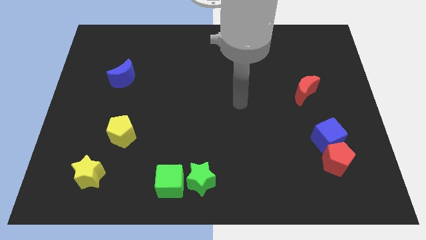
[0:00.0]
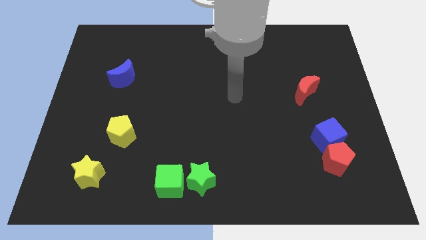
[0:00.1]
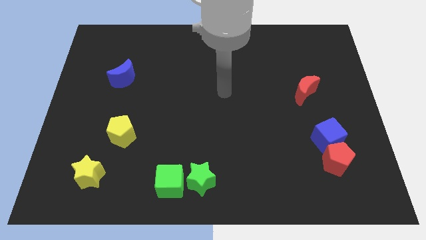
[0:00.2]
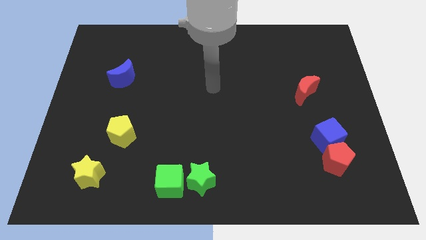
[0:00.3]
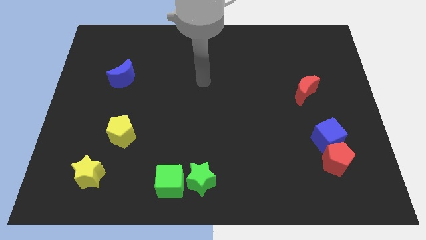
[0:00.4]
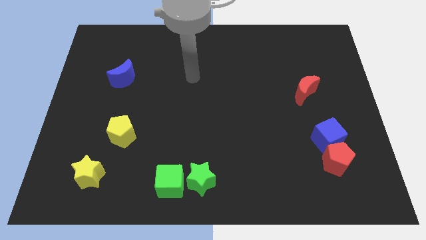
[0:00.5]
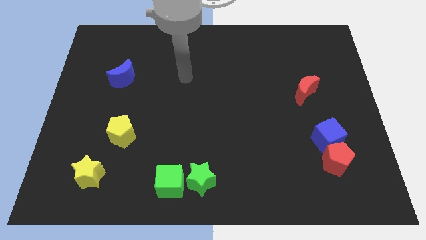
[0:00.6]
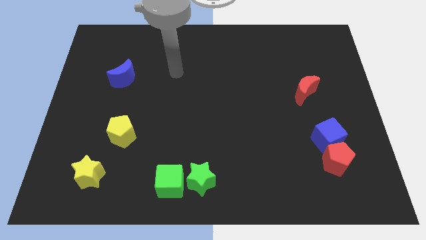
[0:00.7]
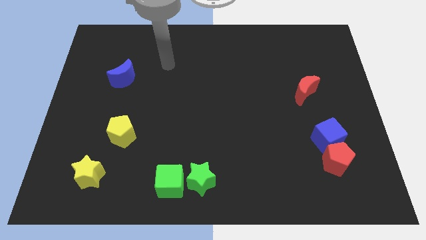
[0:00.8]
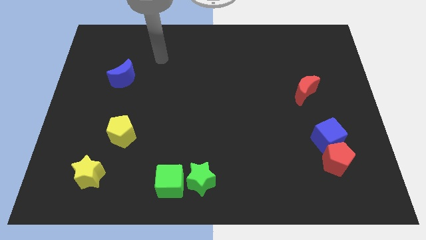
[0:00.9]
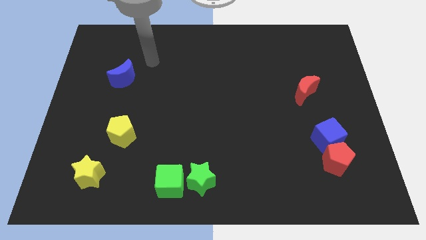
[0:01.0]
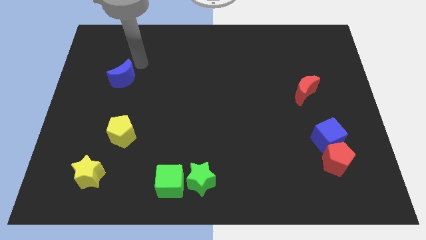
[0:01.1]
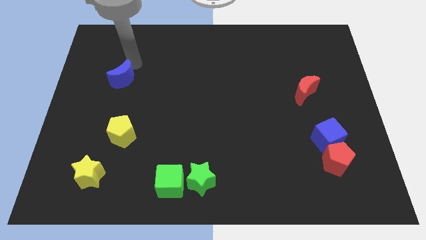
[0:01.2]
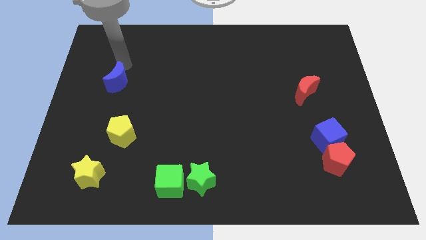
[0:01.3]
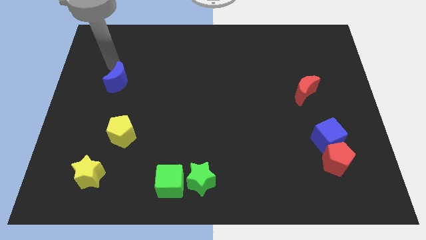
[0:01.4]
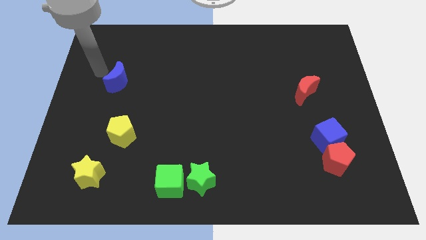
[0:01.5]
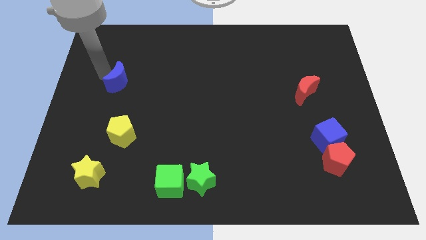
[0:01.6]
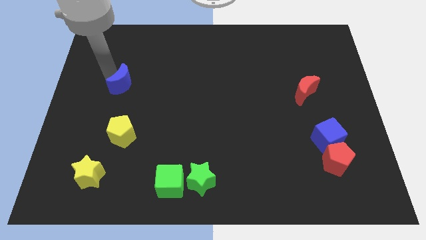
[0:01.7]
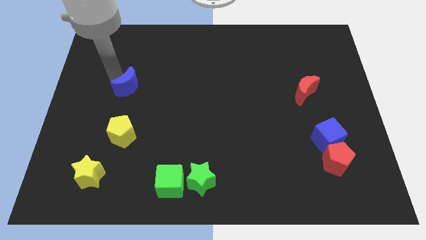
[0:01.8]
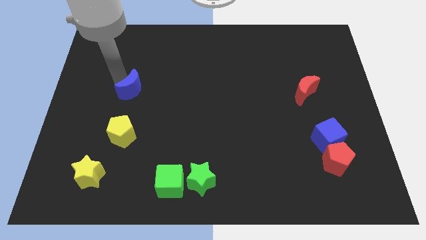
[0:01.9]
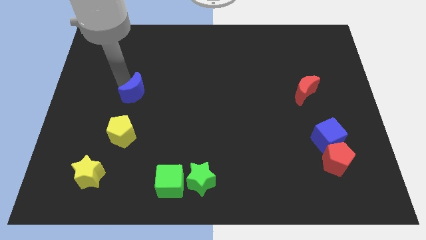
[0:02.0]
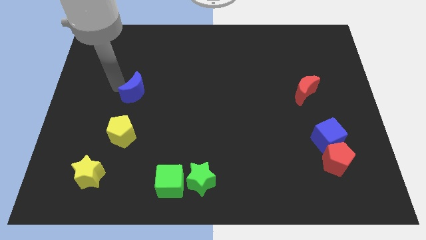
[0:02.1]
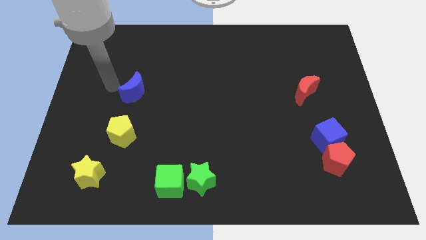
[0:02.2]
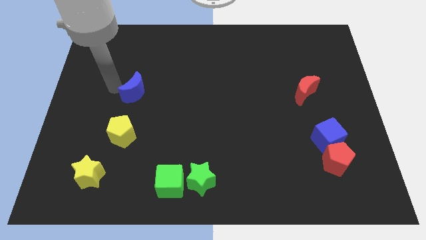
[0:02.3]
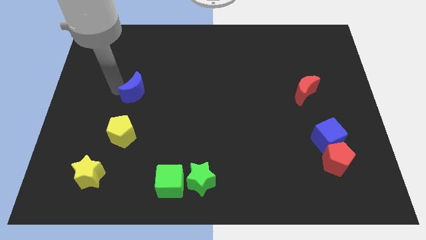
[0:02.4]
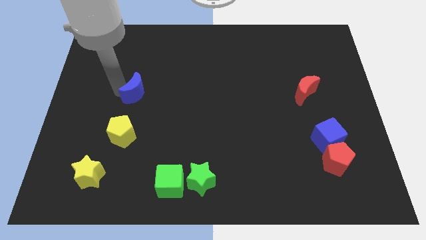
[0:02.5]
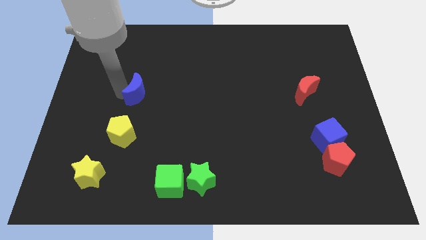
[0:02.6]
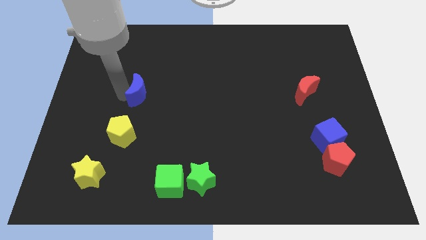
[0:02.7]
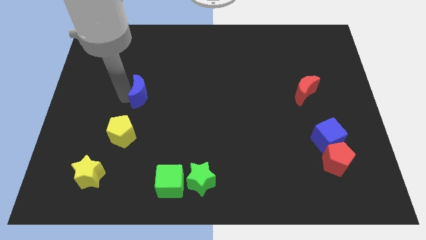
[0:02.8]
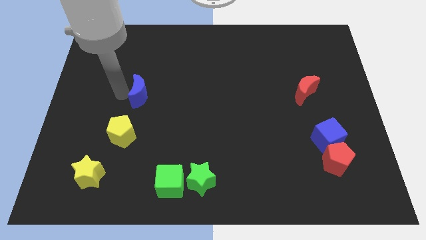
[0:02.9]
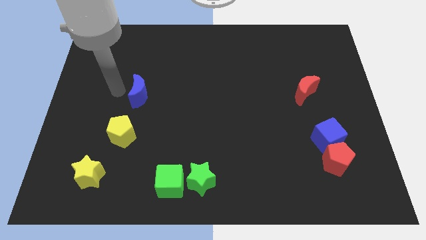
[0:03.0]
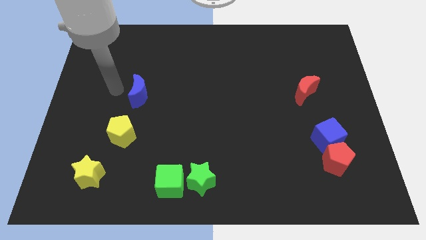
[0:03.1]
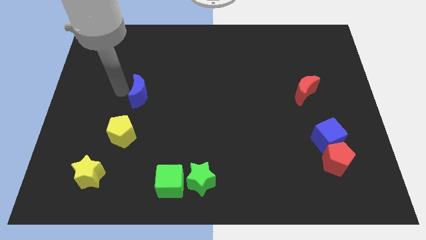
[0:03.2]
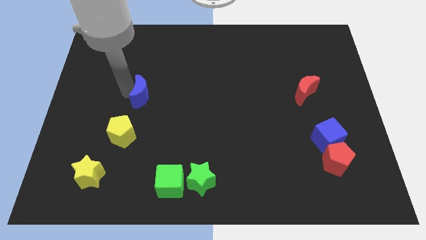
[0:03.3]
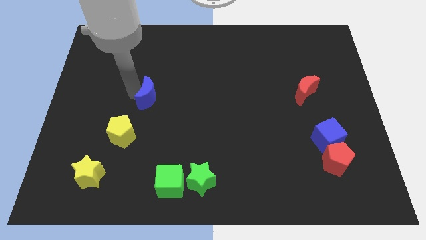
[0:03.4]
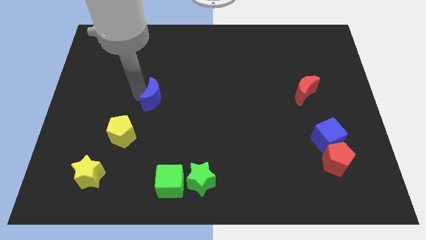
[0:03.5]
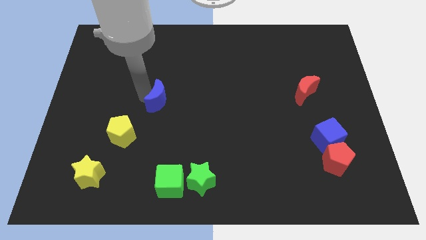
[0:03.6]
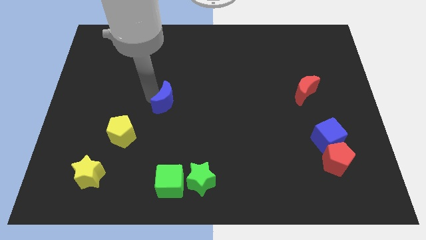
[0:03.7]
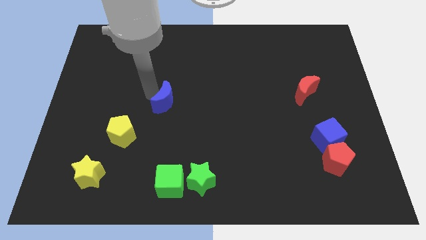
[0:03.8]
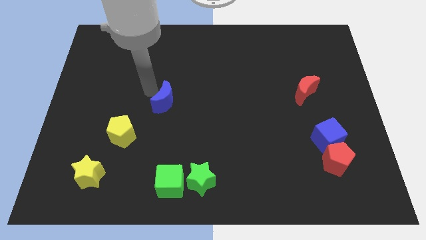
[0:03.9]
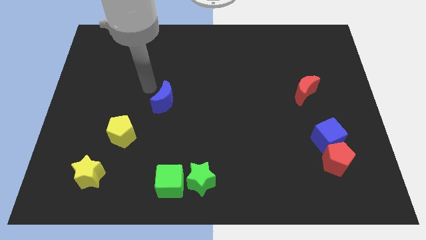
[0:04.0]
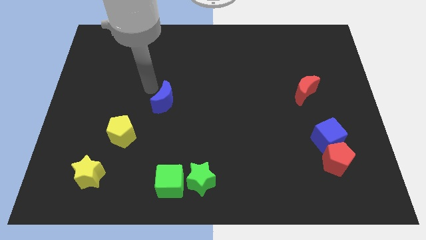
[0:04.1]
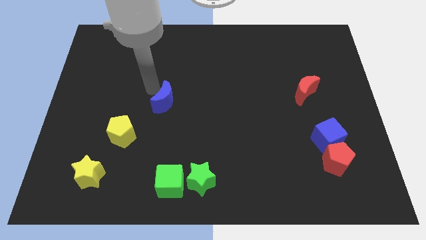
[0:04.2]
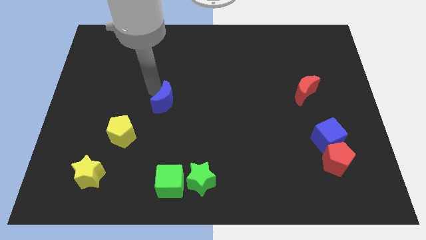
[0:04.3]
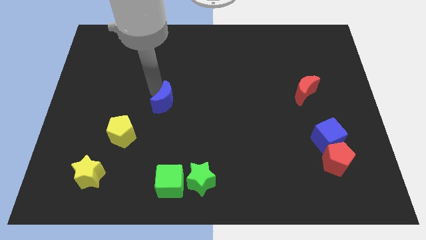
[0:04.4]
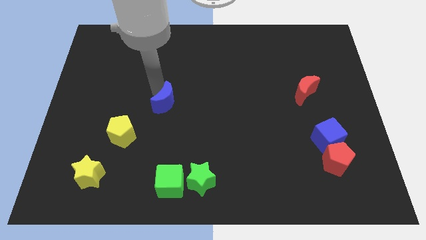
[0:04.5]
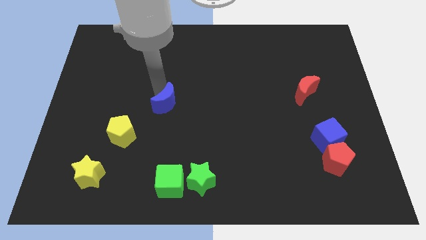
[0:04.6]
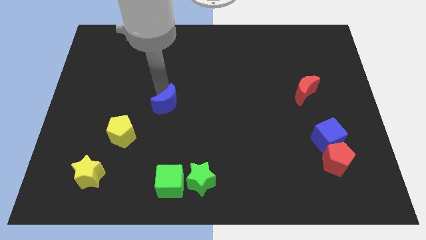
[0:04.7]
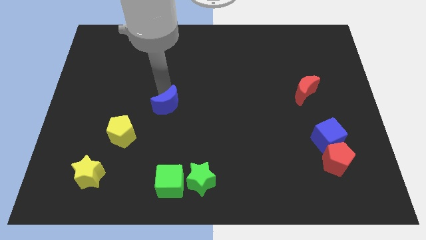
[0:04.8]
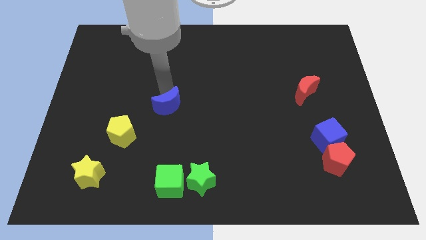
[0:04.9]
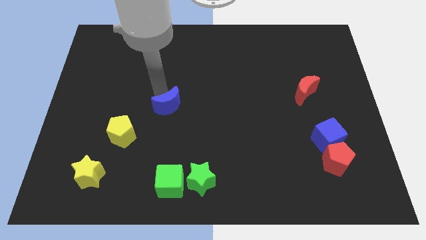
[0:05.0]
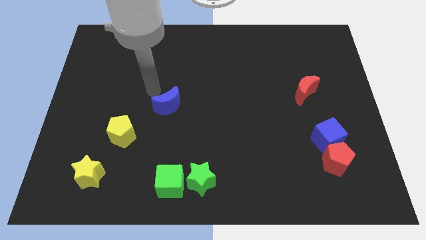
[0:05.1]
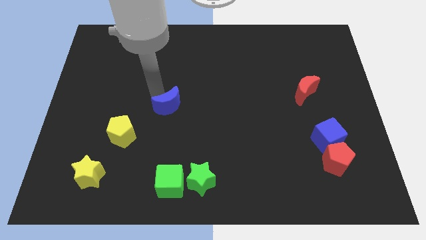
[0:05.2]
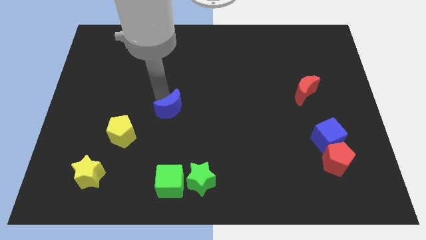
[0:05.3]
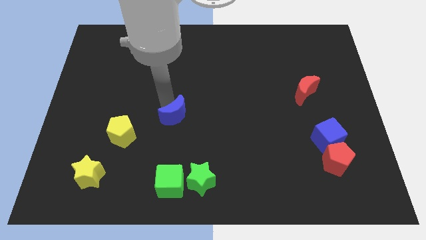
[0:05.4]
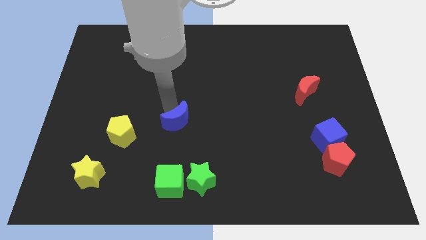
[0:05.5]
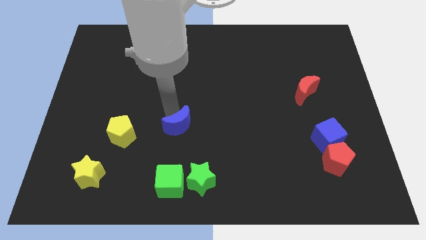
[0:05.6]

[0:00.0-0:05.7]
push the blue moon down and to the right diagonally

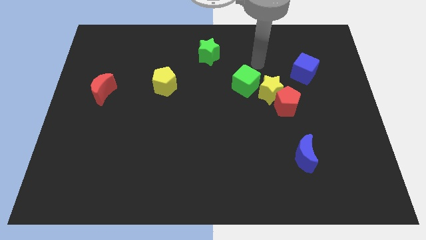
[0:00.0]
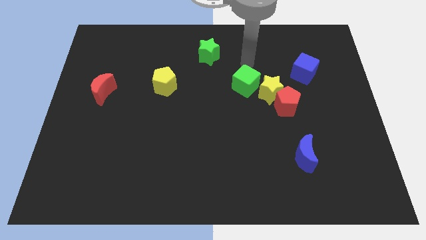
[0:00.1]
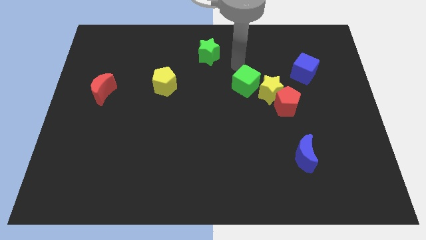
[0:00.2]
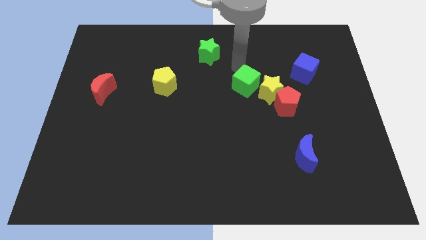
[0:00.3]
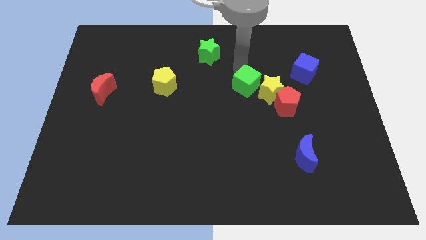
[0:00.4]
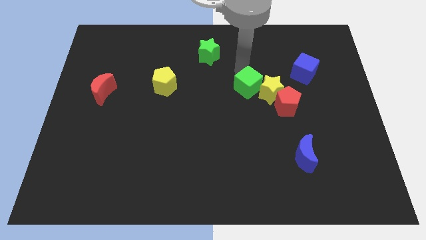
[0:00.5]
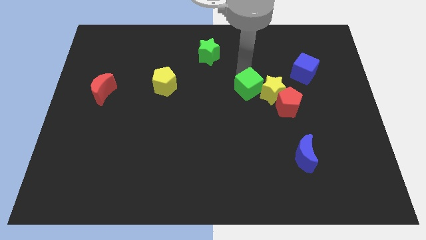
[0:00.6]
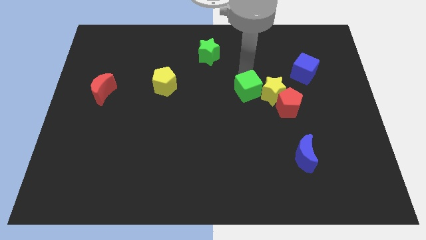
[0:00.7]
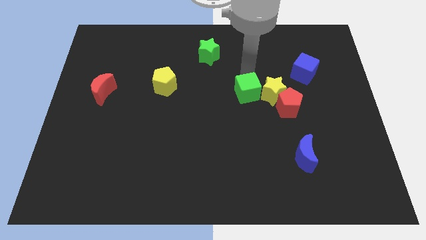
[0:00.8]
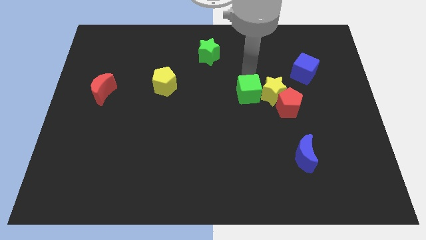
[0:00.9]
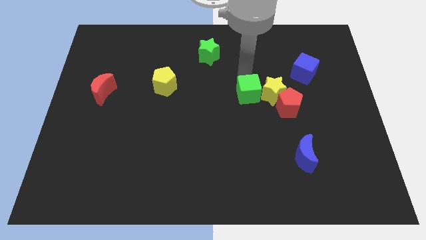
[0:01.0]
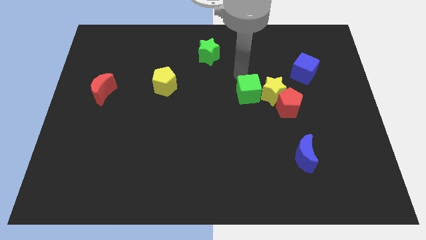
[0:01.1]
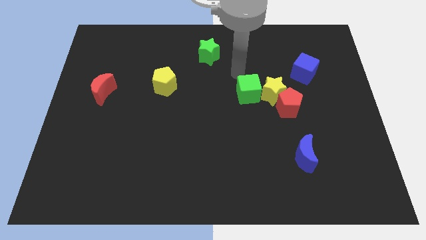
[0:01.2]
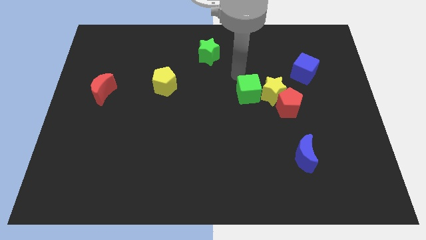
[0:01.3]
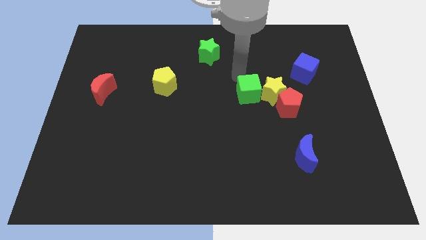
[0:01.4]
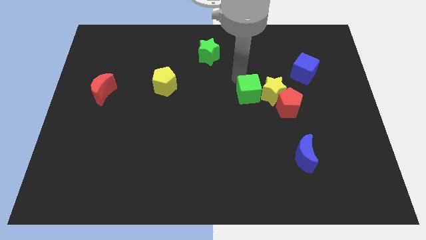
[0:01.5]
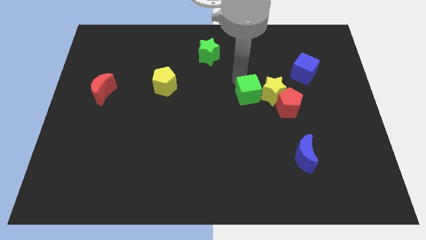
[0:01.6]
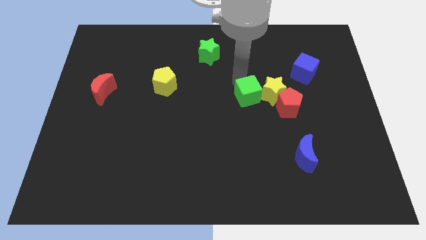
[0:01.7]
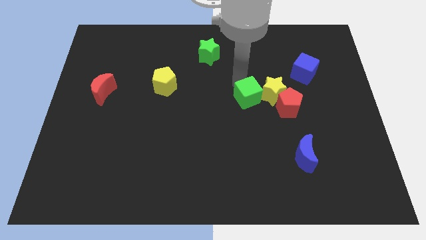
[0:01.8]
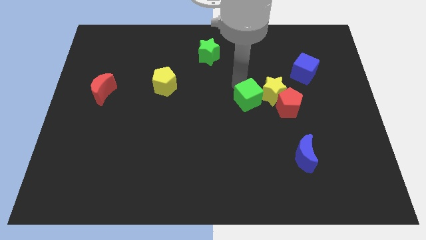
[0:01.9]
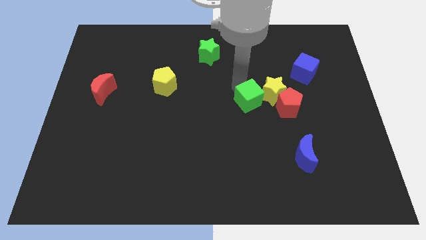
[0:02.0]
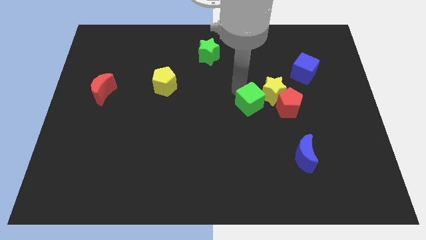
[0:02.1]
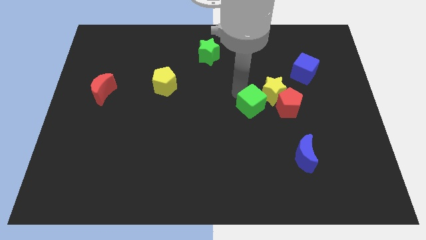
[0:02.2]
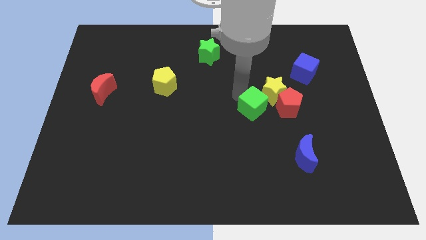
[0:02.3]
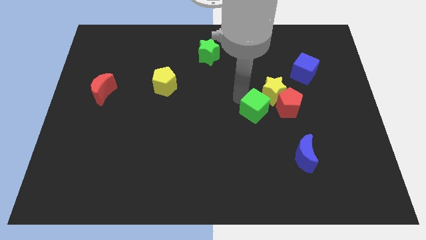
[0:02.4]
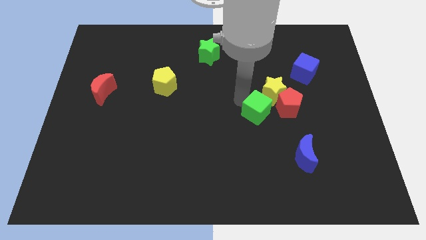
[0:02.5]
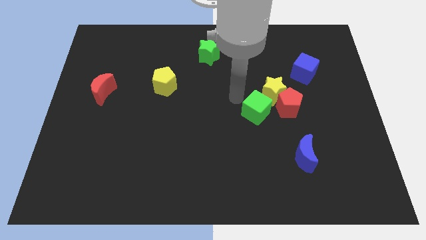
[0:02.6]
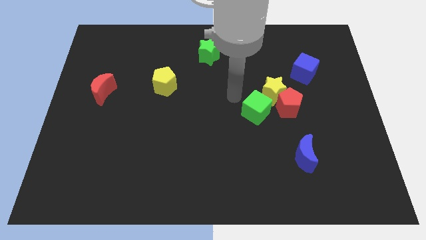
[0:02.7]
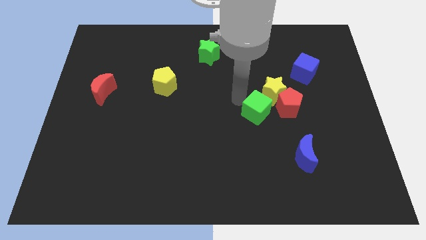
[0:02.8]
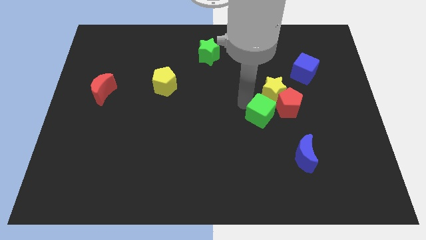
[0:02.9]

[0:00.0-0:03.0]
slightly move the green cube downwards and right
